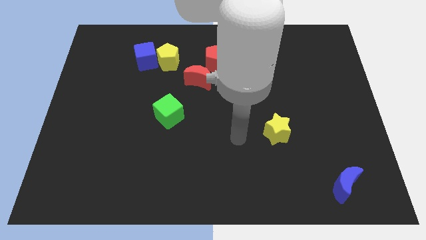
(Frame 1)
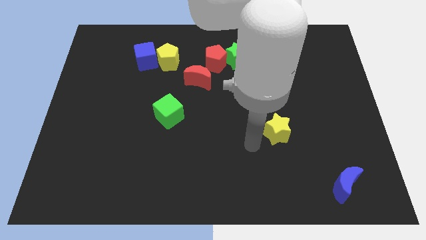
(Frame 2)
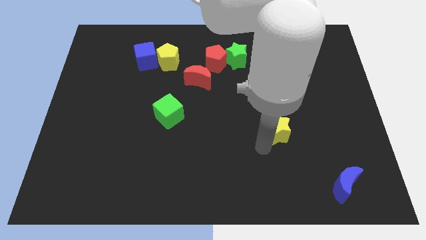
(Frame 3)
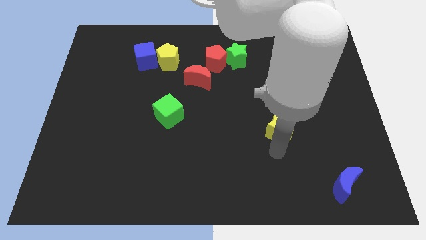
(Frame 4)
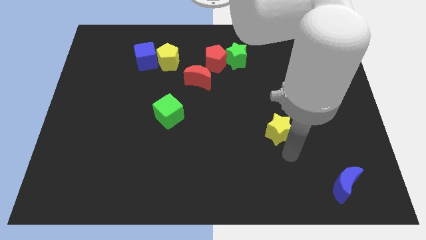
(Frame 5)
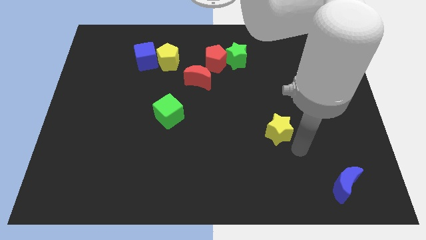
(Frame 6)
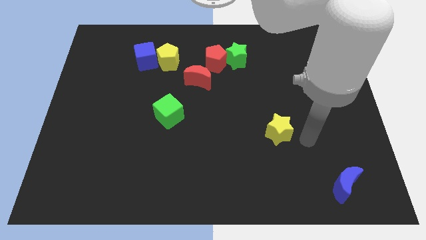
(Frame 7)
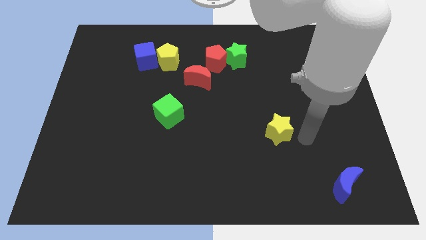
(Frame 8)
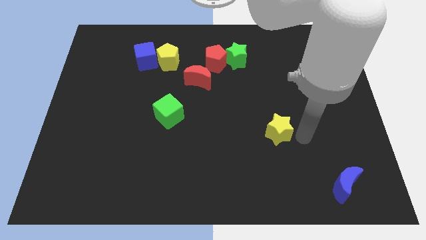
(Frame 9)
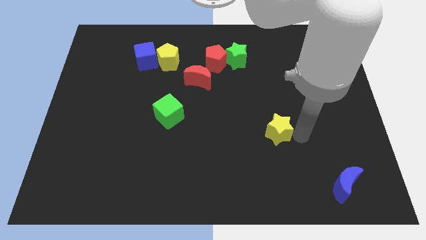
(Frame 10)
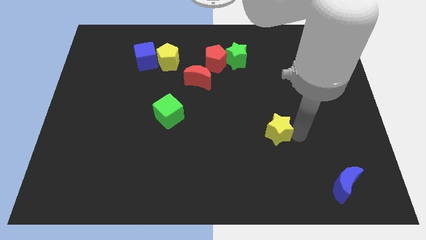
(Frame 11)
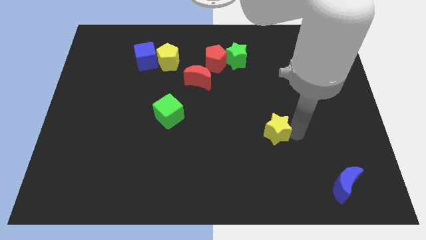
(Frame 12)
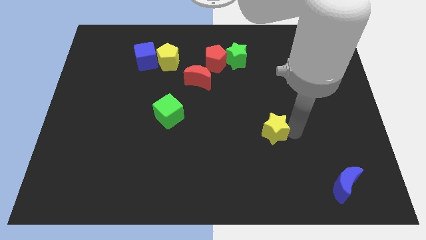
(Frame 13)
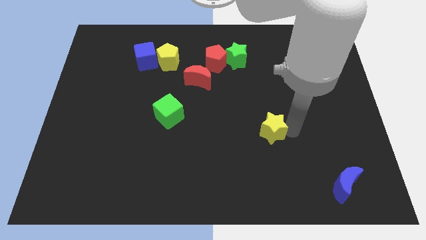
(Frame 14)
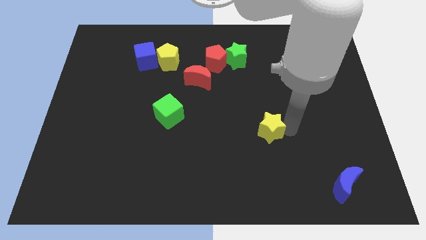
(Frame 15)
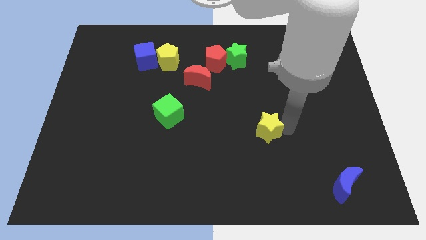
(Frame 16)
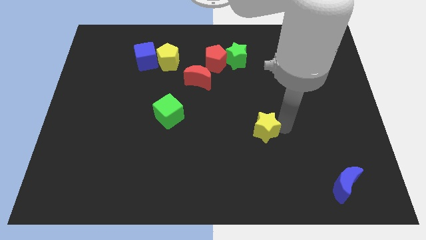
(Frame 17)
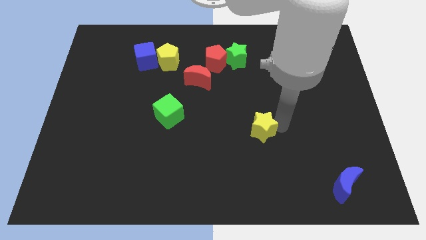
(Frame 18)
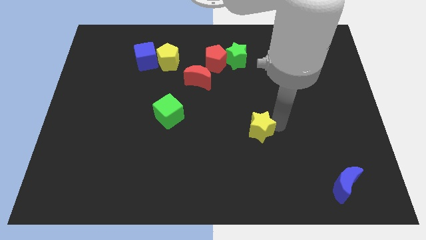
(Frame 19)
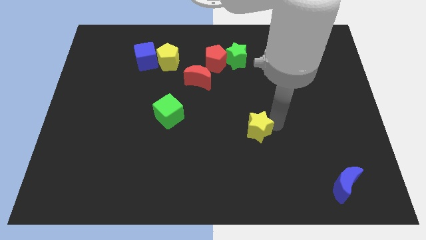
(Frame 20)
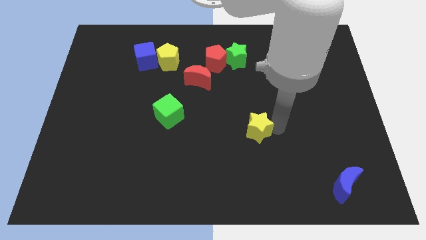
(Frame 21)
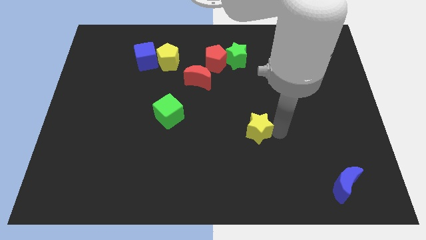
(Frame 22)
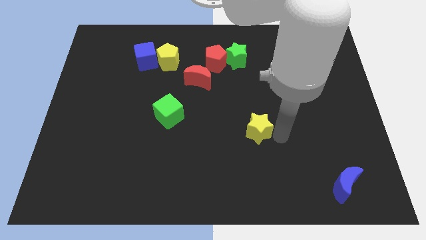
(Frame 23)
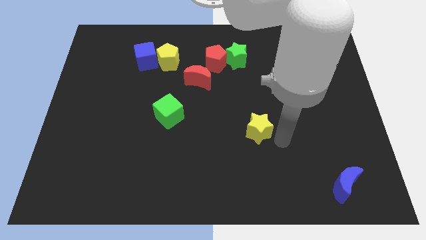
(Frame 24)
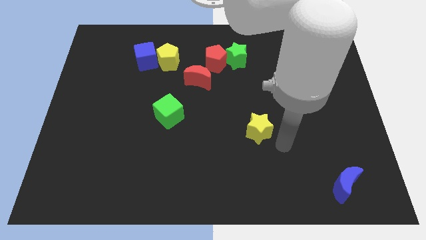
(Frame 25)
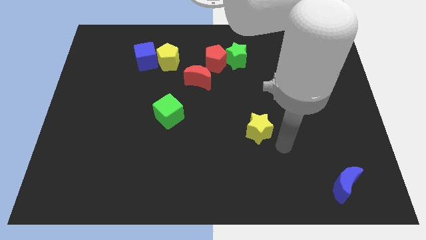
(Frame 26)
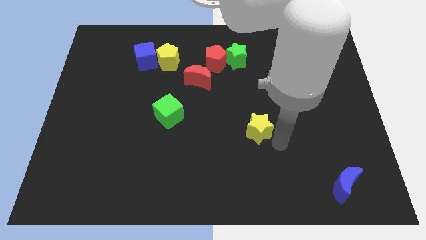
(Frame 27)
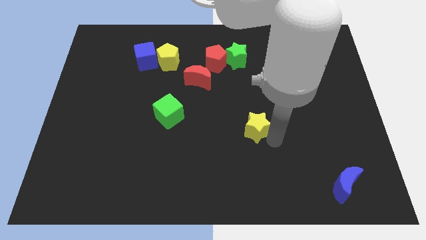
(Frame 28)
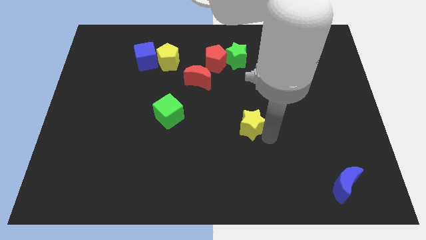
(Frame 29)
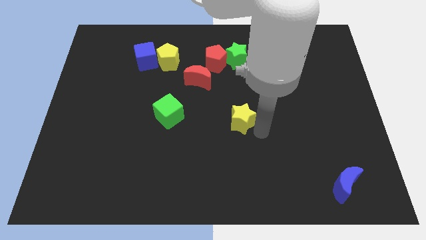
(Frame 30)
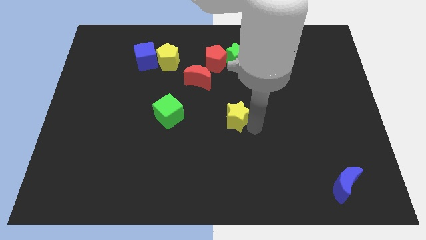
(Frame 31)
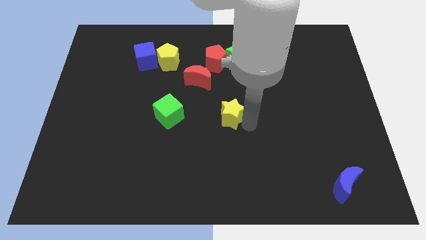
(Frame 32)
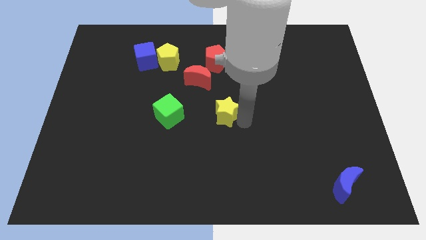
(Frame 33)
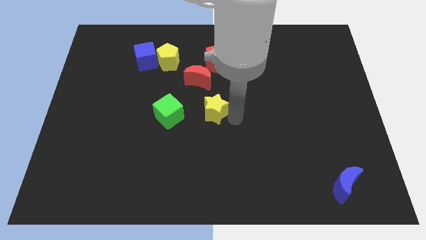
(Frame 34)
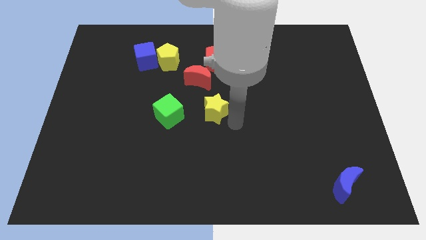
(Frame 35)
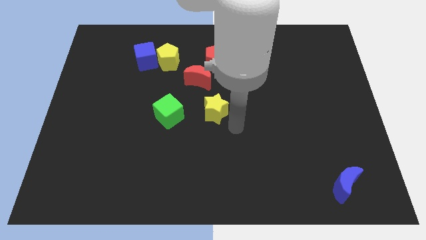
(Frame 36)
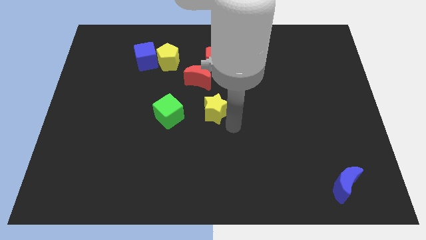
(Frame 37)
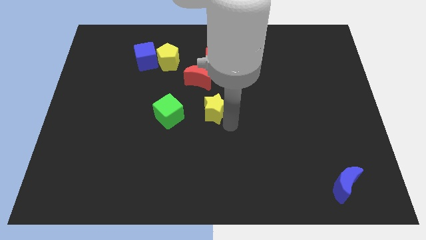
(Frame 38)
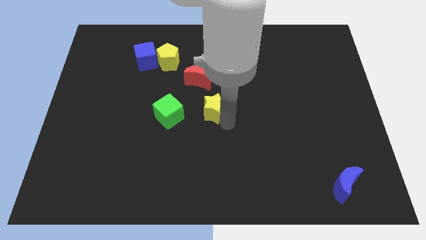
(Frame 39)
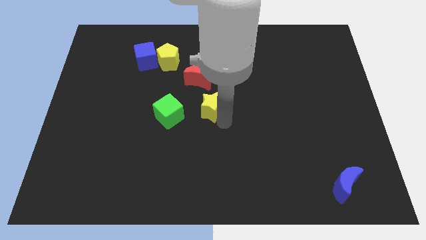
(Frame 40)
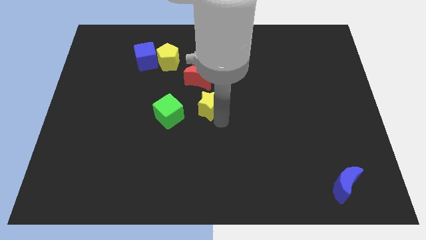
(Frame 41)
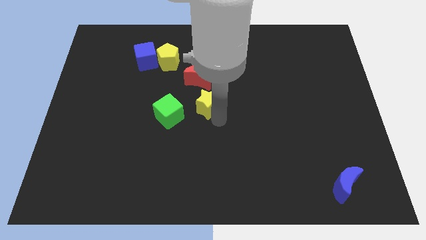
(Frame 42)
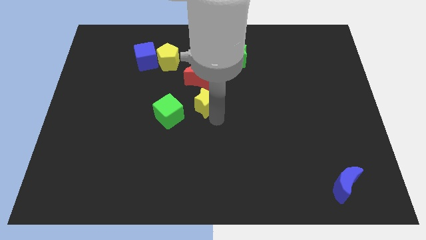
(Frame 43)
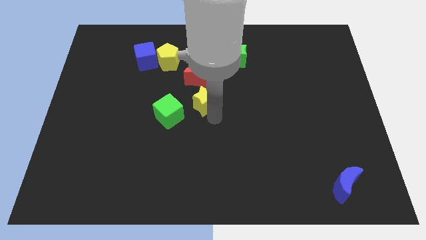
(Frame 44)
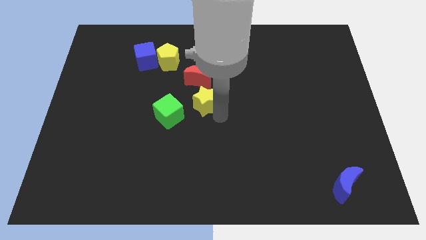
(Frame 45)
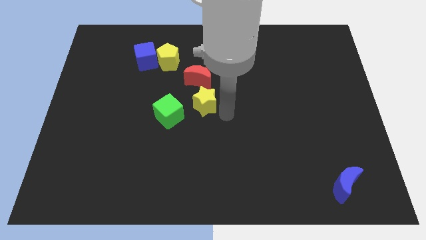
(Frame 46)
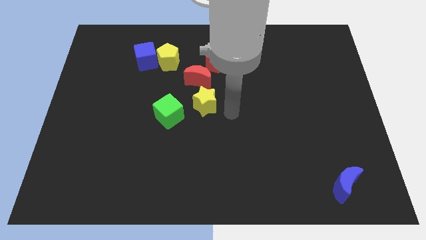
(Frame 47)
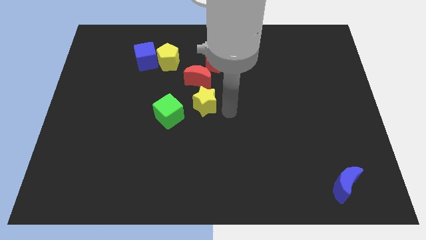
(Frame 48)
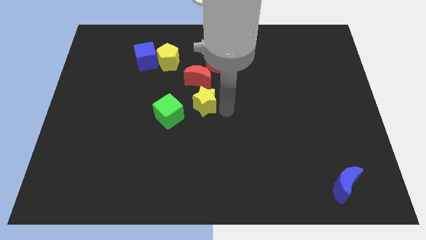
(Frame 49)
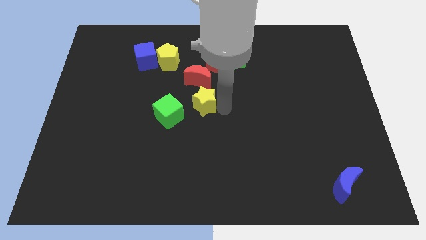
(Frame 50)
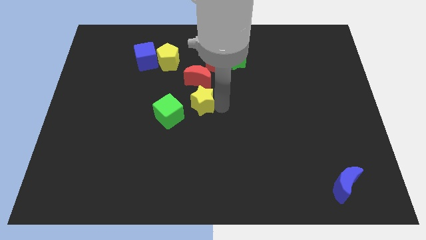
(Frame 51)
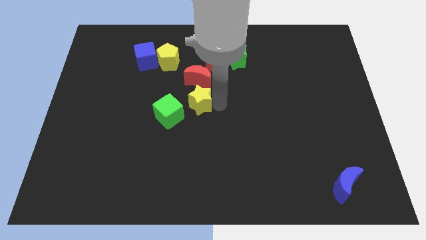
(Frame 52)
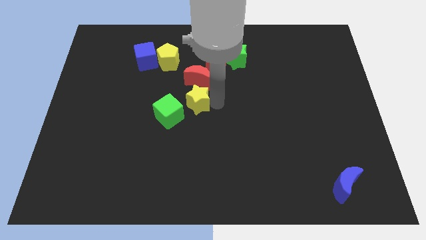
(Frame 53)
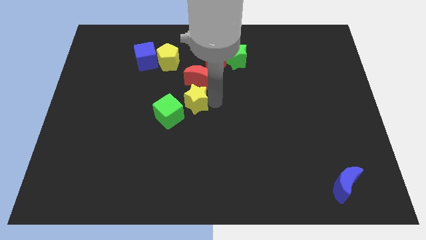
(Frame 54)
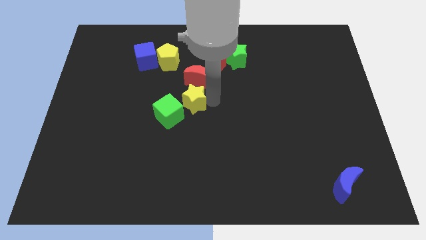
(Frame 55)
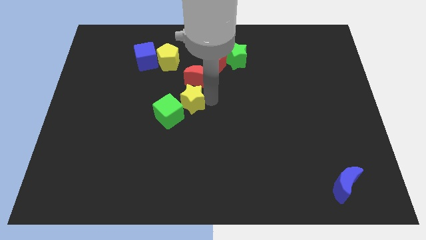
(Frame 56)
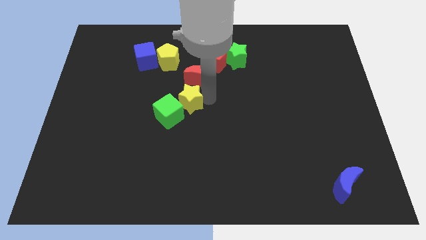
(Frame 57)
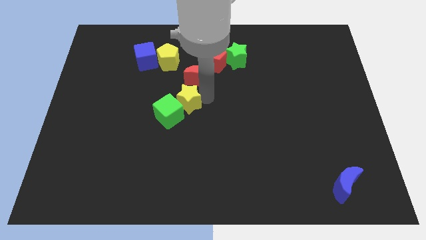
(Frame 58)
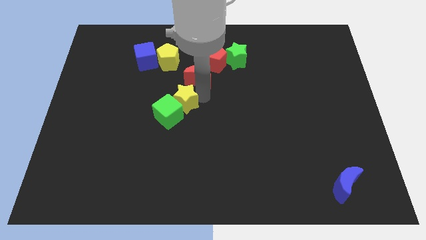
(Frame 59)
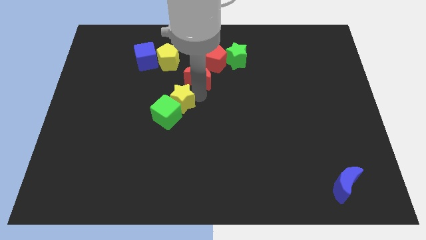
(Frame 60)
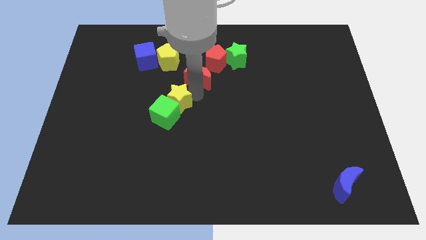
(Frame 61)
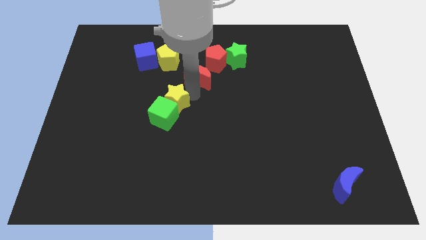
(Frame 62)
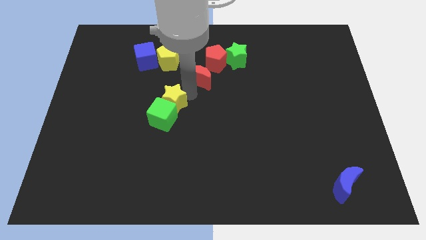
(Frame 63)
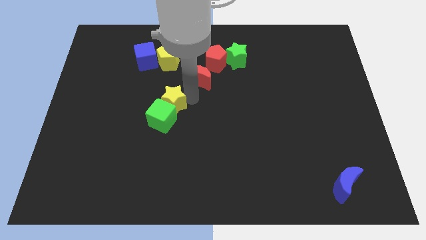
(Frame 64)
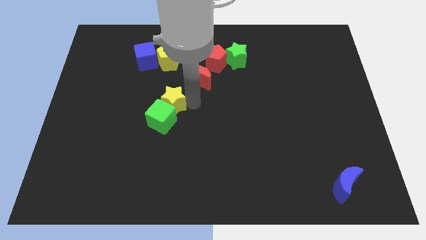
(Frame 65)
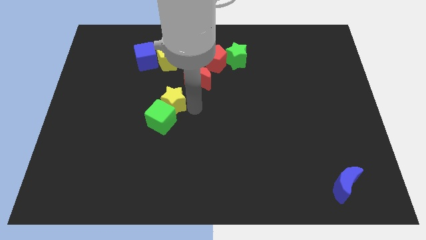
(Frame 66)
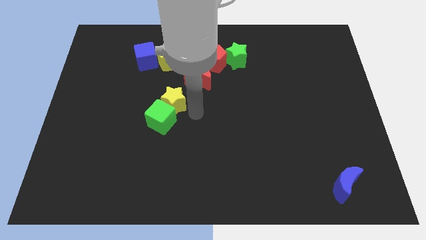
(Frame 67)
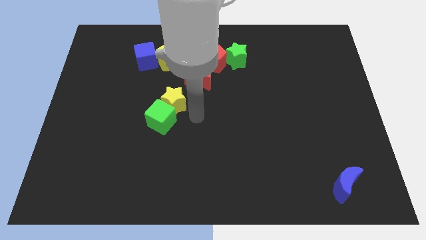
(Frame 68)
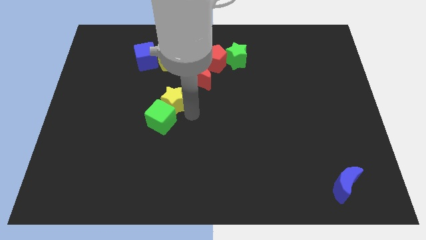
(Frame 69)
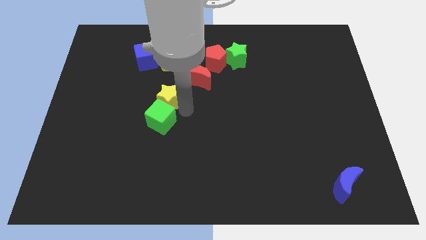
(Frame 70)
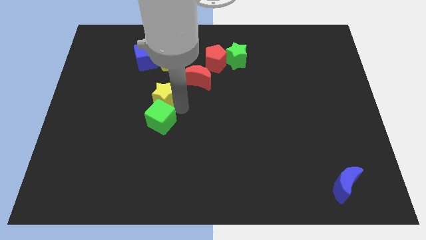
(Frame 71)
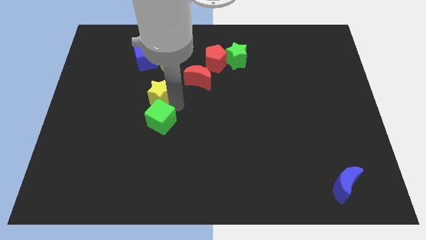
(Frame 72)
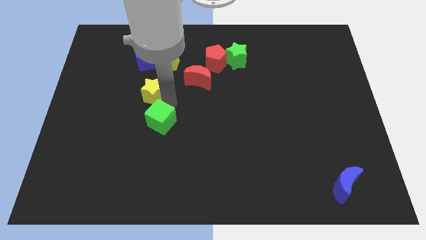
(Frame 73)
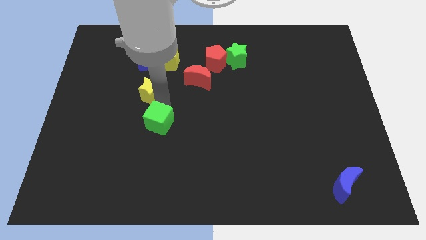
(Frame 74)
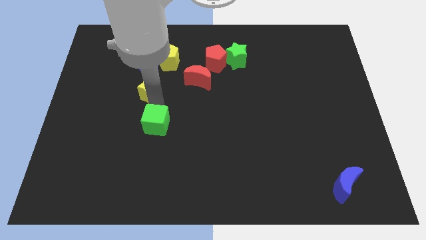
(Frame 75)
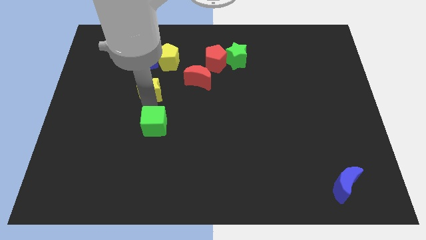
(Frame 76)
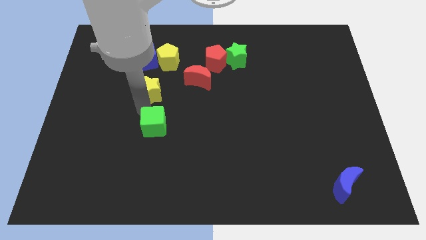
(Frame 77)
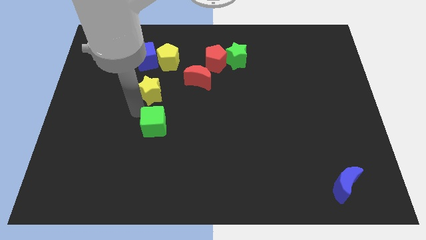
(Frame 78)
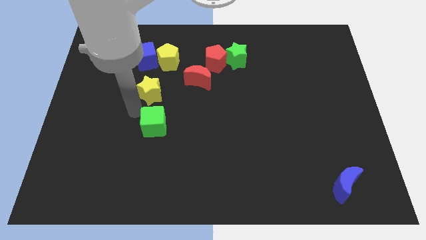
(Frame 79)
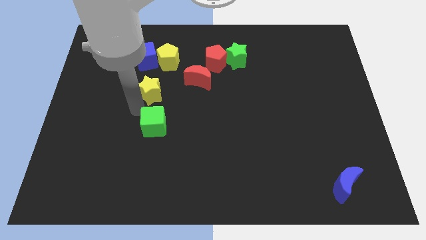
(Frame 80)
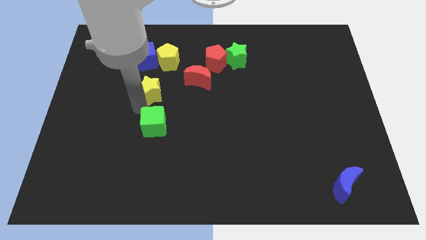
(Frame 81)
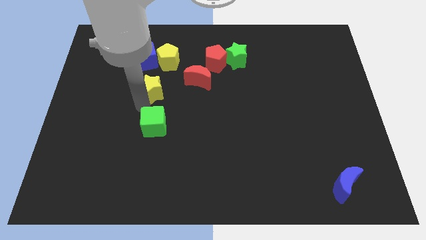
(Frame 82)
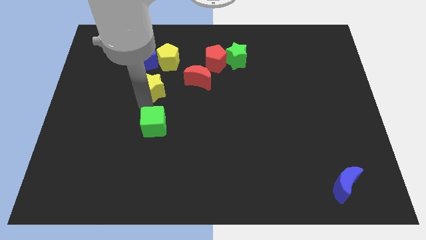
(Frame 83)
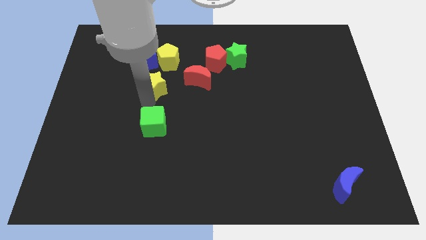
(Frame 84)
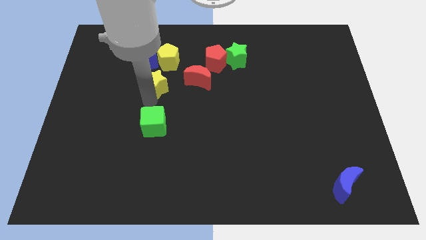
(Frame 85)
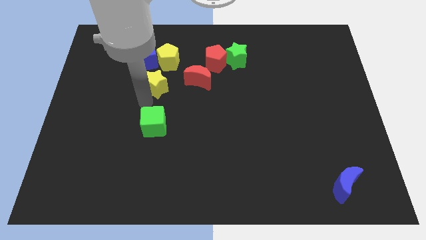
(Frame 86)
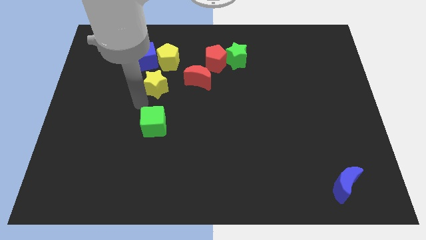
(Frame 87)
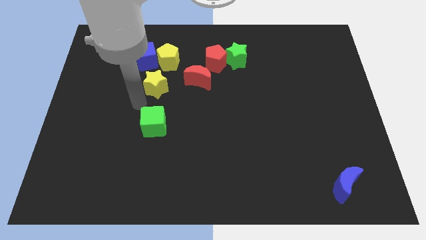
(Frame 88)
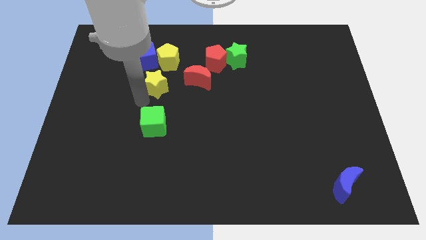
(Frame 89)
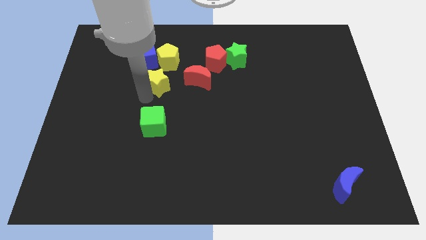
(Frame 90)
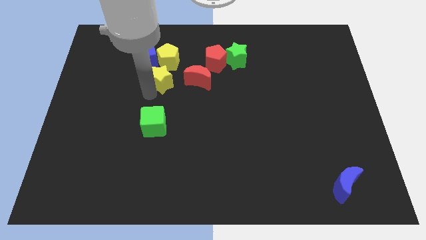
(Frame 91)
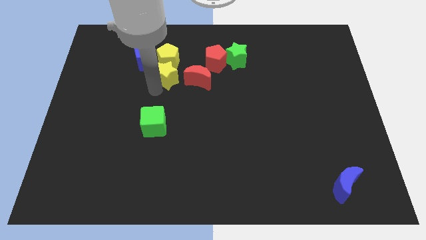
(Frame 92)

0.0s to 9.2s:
slide the yellow star next to the yellow pentagon
